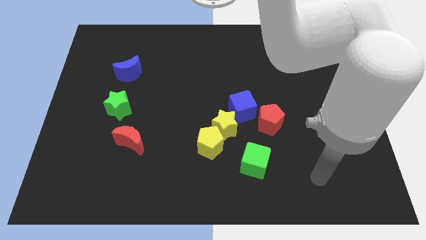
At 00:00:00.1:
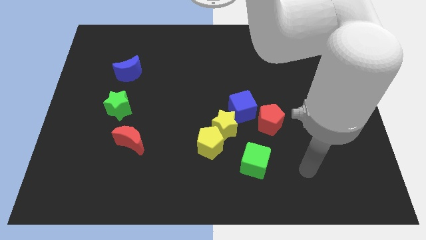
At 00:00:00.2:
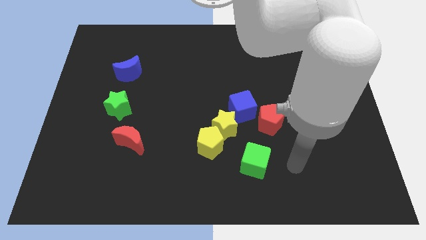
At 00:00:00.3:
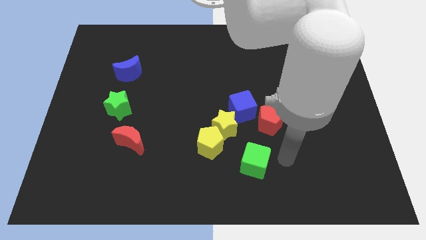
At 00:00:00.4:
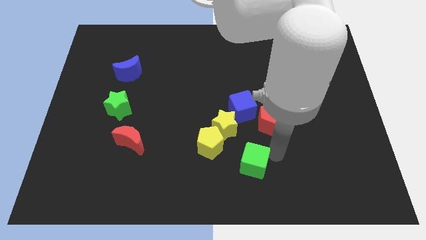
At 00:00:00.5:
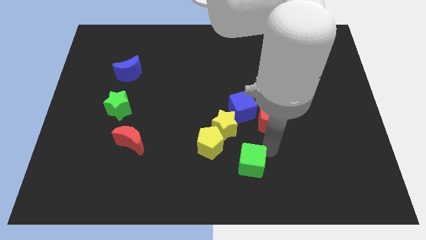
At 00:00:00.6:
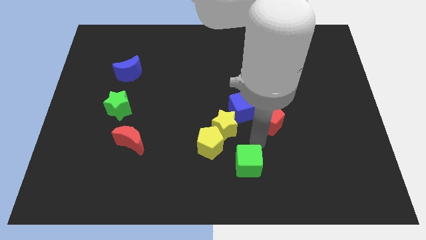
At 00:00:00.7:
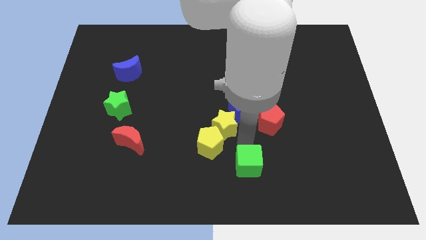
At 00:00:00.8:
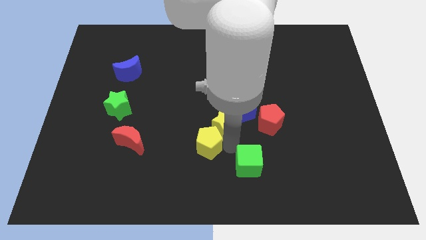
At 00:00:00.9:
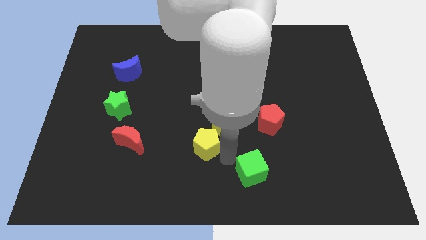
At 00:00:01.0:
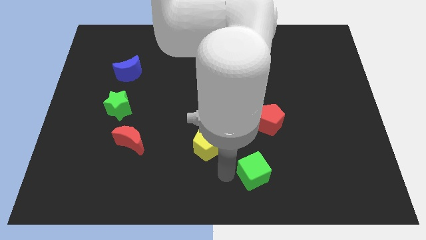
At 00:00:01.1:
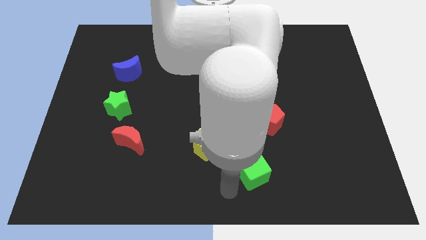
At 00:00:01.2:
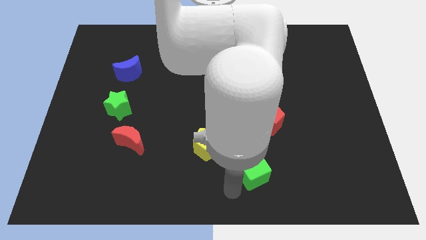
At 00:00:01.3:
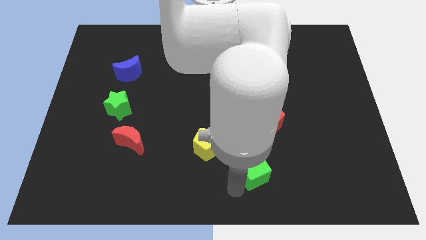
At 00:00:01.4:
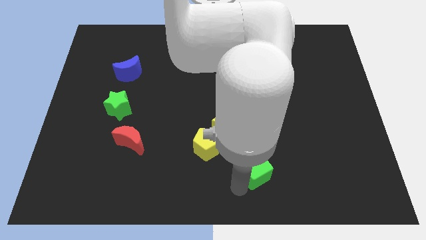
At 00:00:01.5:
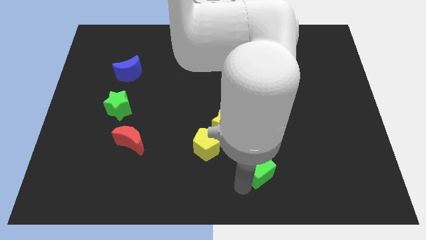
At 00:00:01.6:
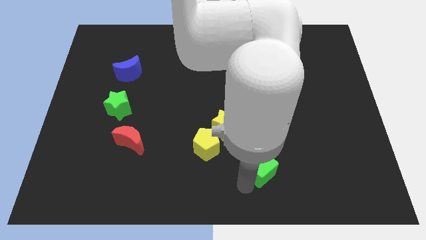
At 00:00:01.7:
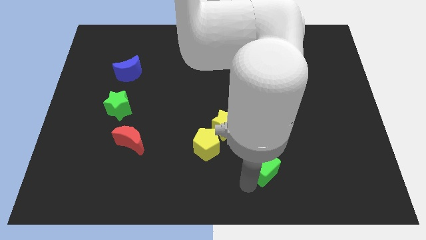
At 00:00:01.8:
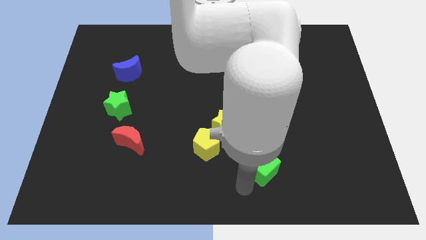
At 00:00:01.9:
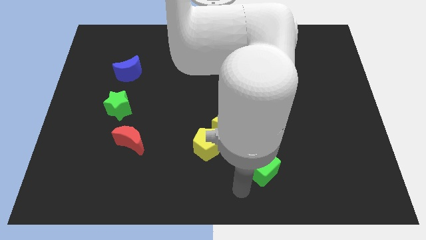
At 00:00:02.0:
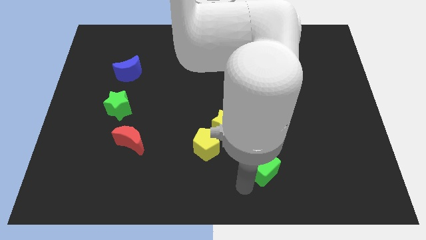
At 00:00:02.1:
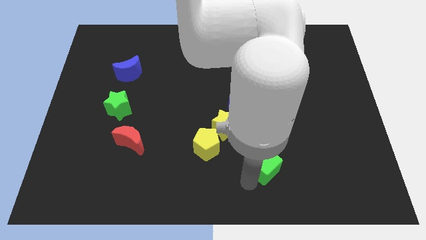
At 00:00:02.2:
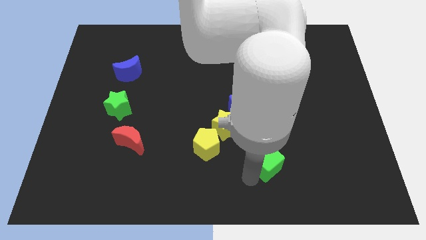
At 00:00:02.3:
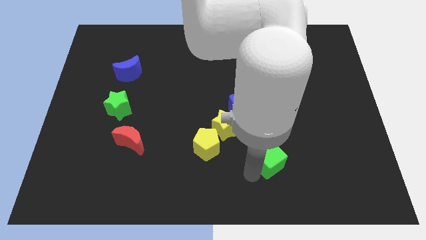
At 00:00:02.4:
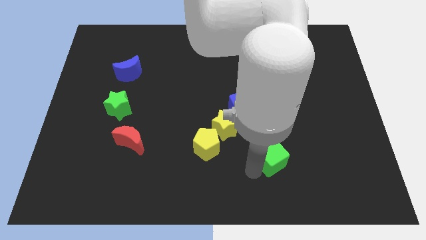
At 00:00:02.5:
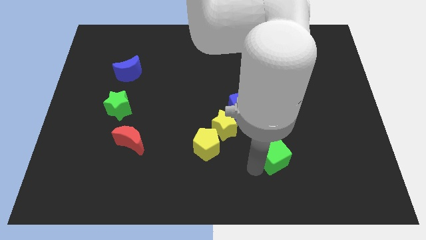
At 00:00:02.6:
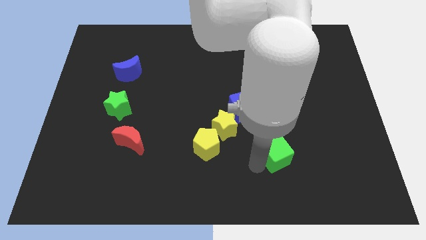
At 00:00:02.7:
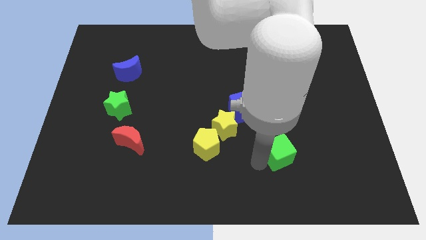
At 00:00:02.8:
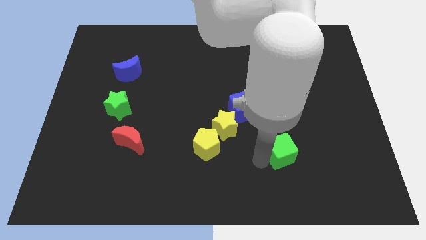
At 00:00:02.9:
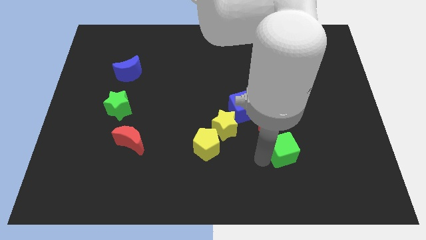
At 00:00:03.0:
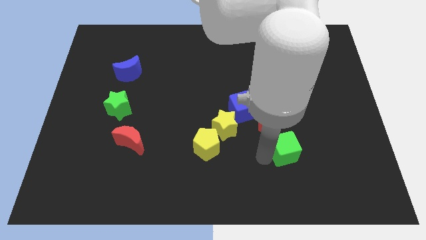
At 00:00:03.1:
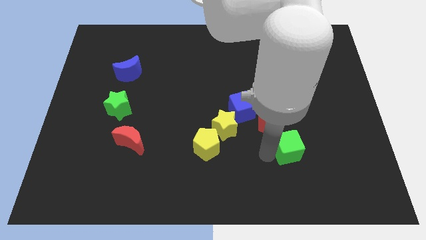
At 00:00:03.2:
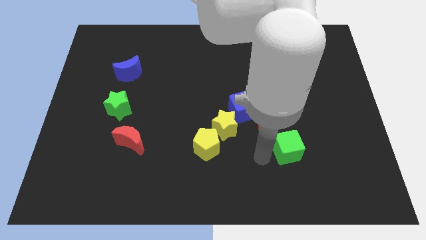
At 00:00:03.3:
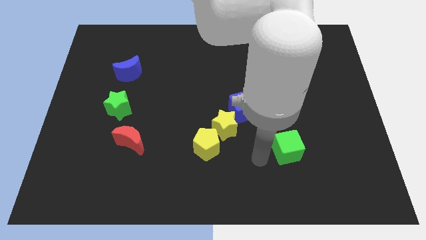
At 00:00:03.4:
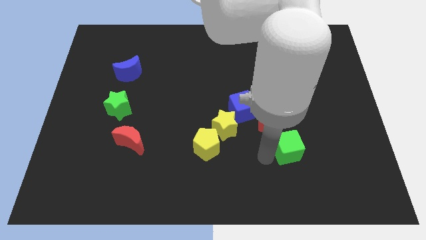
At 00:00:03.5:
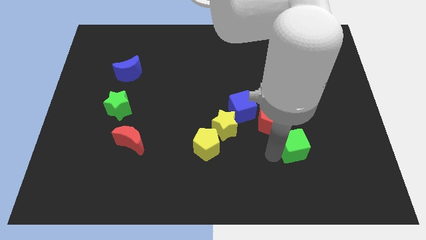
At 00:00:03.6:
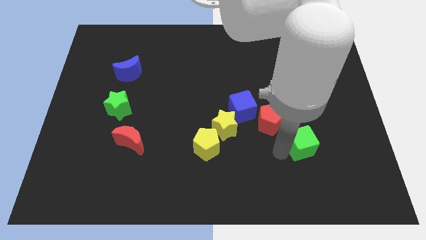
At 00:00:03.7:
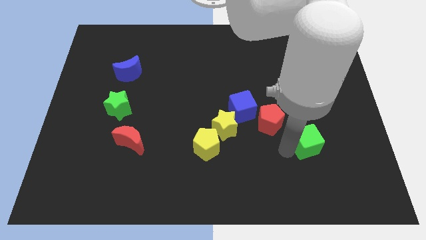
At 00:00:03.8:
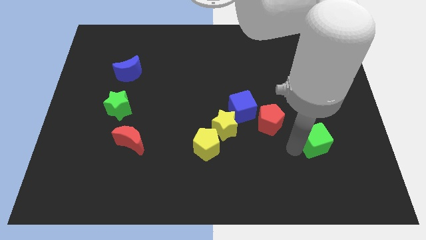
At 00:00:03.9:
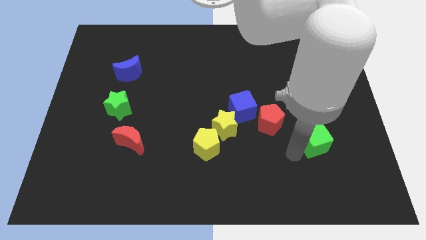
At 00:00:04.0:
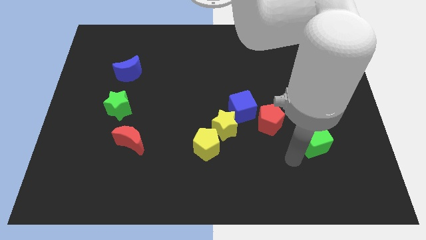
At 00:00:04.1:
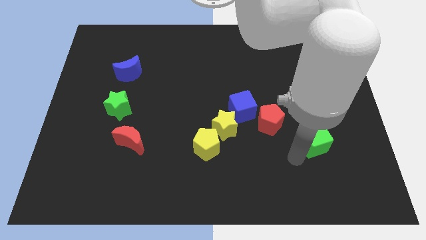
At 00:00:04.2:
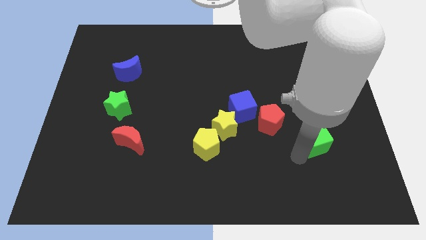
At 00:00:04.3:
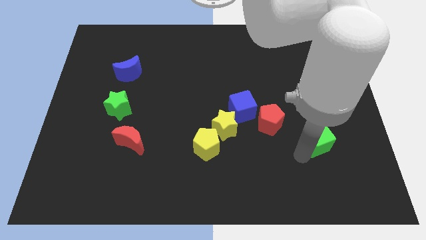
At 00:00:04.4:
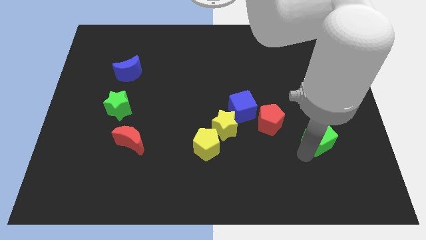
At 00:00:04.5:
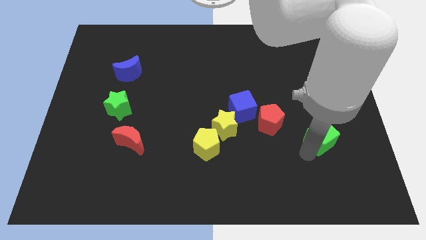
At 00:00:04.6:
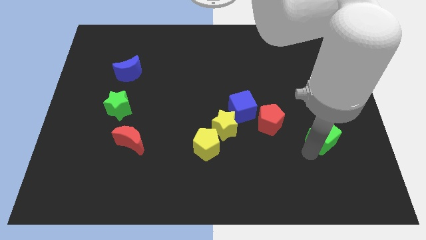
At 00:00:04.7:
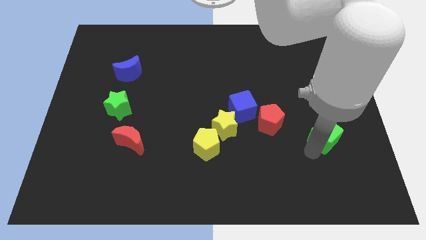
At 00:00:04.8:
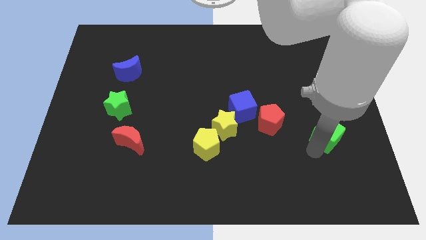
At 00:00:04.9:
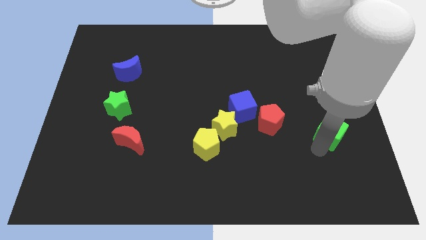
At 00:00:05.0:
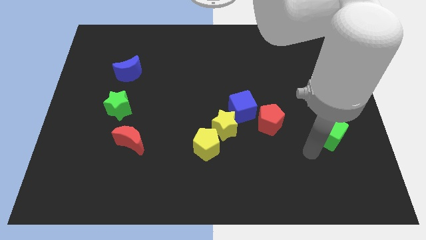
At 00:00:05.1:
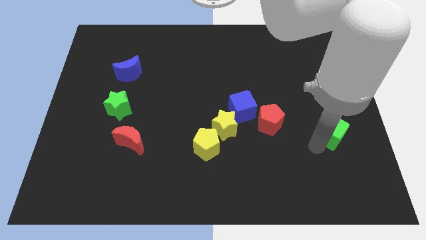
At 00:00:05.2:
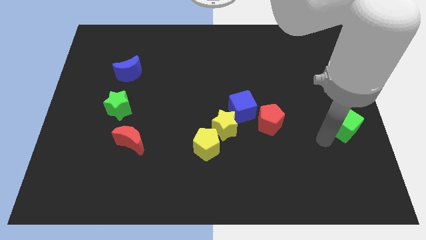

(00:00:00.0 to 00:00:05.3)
put the green cube to the right side

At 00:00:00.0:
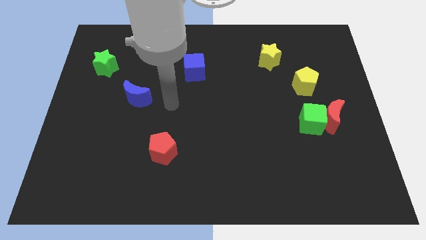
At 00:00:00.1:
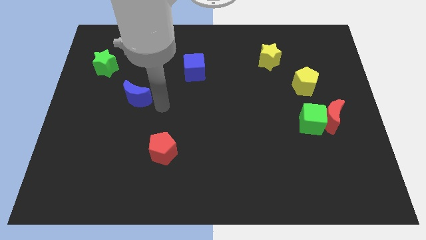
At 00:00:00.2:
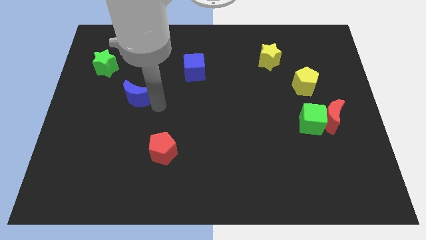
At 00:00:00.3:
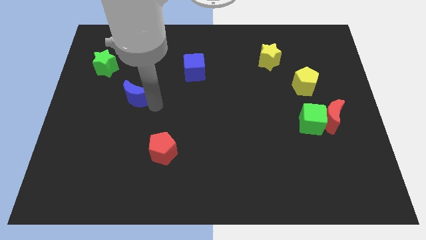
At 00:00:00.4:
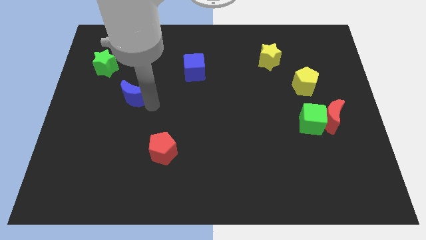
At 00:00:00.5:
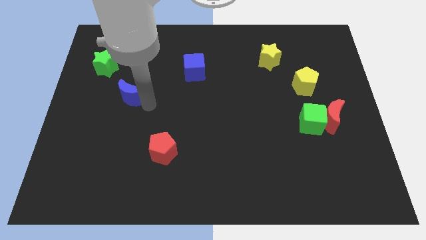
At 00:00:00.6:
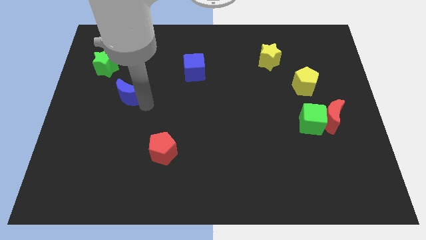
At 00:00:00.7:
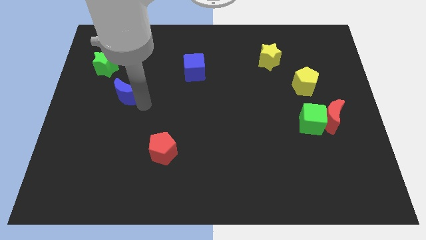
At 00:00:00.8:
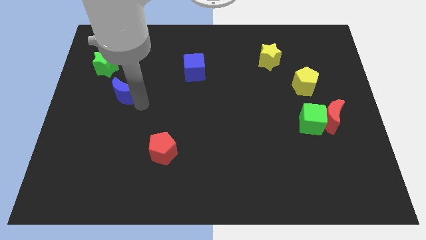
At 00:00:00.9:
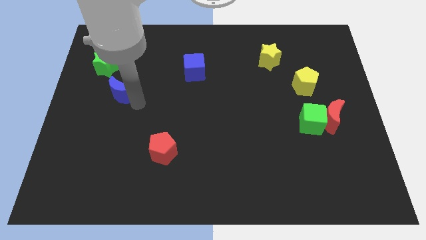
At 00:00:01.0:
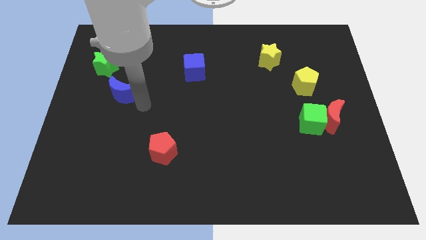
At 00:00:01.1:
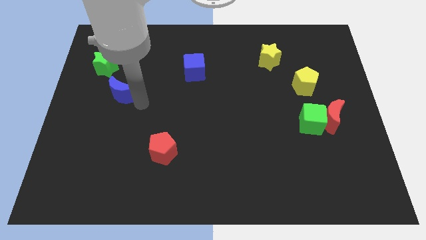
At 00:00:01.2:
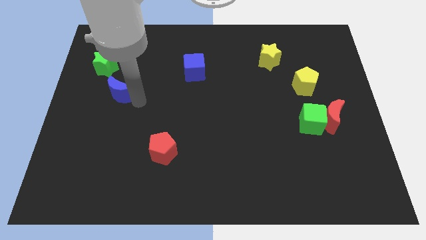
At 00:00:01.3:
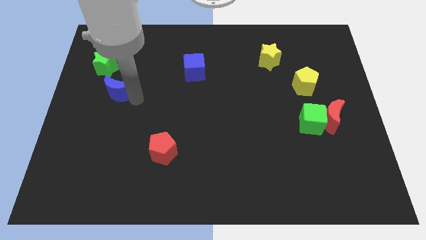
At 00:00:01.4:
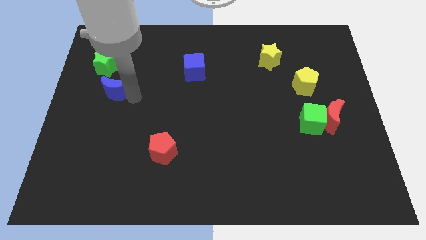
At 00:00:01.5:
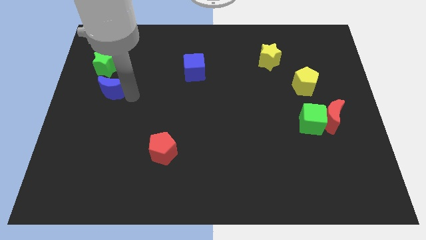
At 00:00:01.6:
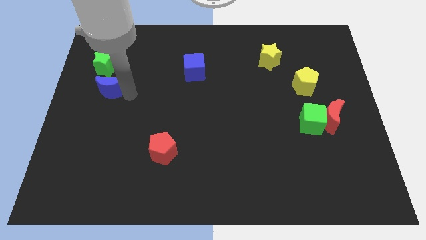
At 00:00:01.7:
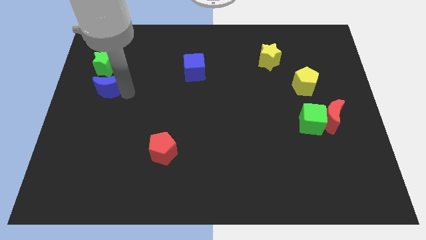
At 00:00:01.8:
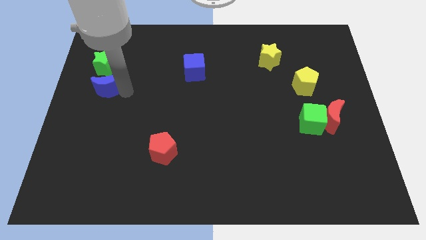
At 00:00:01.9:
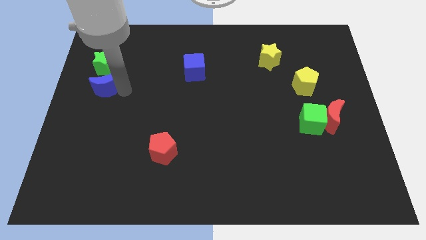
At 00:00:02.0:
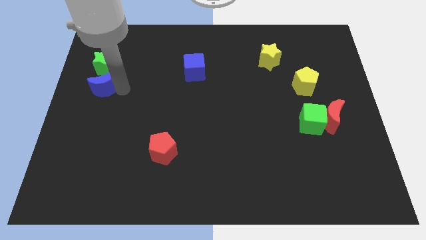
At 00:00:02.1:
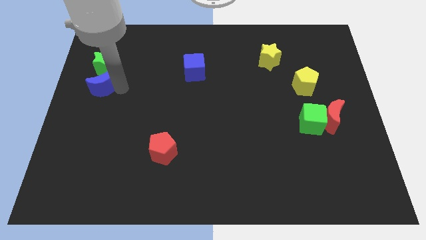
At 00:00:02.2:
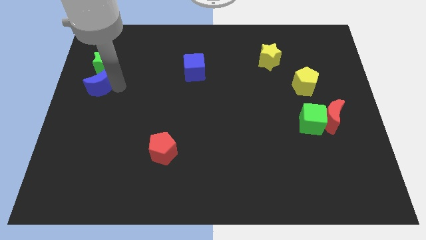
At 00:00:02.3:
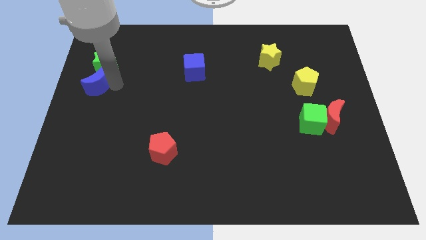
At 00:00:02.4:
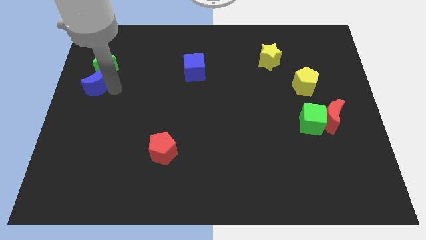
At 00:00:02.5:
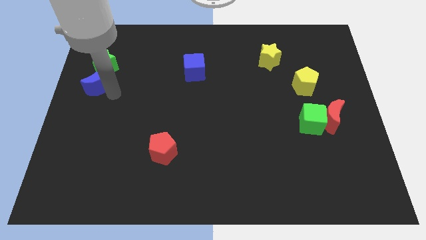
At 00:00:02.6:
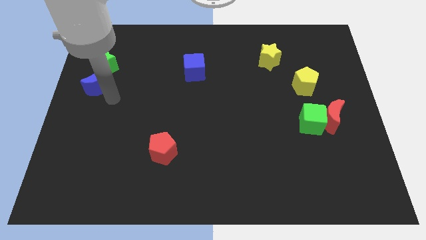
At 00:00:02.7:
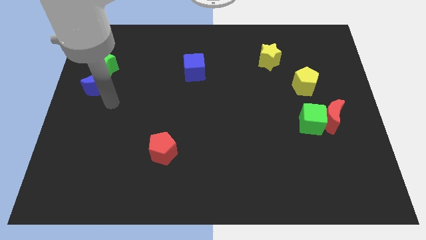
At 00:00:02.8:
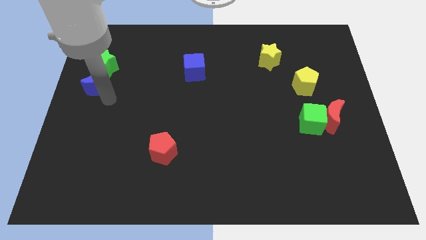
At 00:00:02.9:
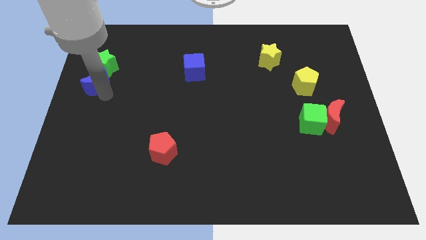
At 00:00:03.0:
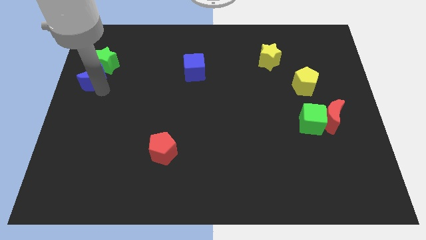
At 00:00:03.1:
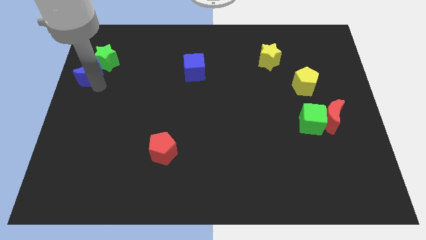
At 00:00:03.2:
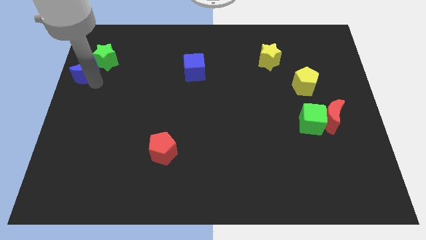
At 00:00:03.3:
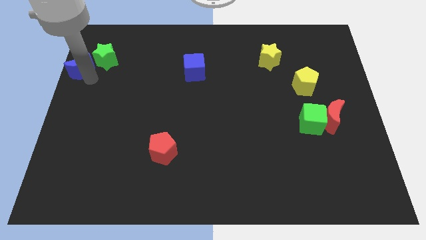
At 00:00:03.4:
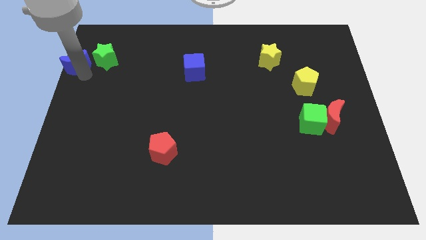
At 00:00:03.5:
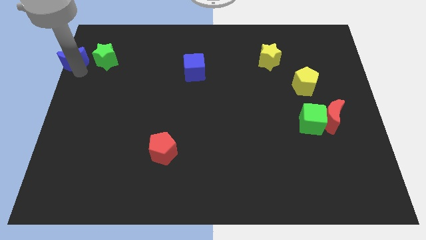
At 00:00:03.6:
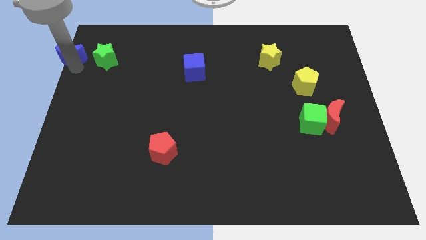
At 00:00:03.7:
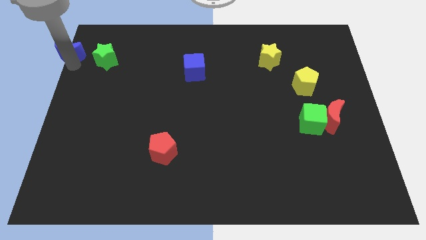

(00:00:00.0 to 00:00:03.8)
put the blue moon to the upper left corner
